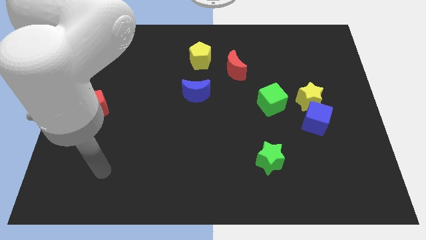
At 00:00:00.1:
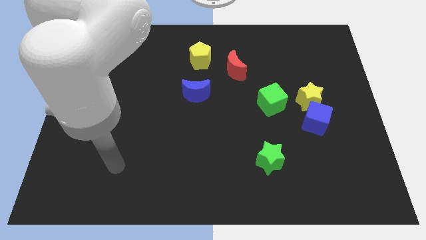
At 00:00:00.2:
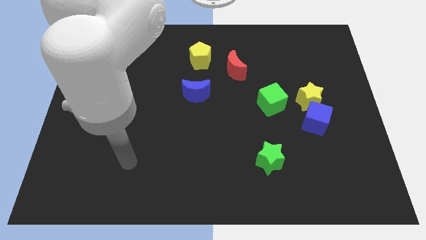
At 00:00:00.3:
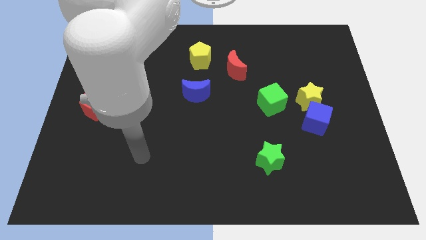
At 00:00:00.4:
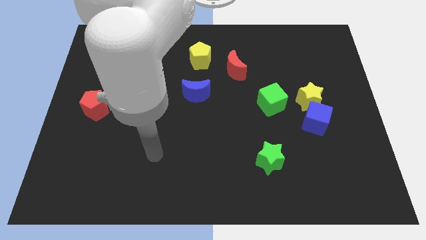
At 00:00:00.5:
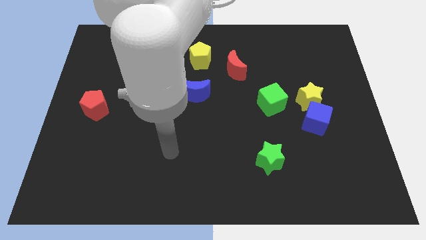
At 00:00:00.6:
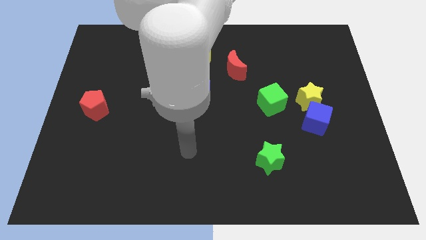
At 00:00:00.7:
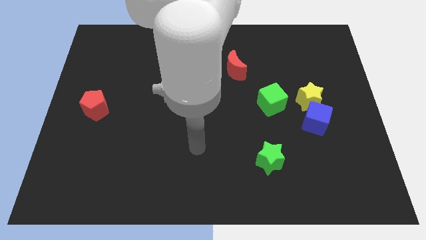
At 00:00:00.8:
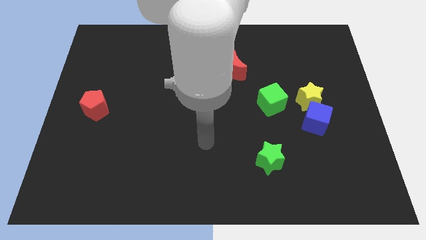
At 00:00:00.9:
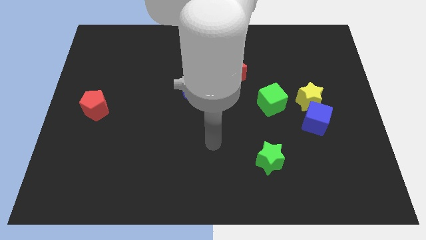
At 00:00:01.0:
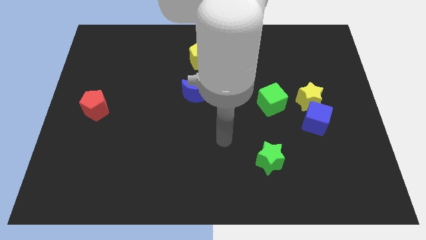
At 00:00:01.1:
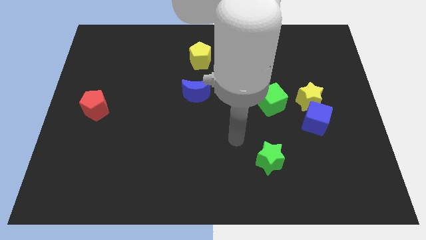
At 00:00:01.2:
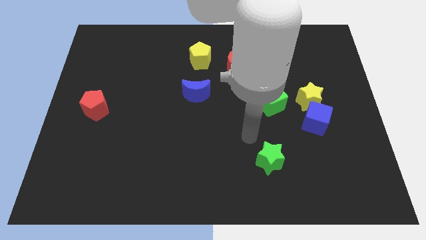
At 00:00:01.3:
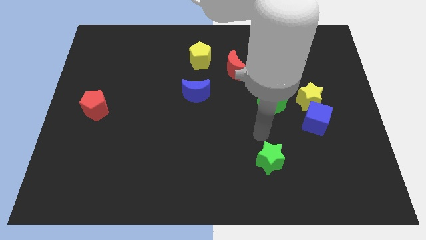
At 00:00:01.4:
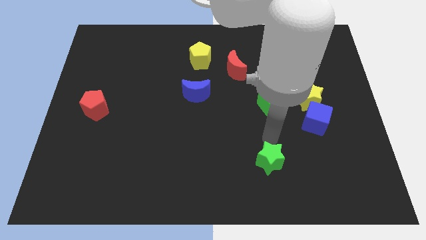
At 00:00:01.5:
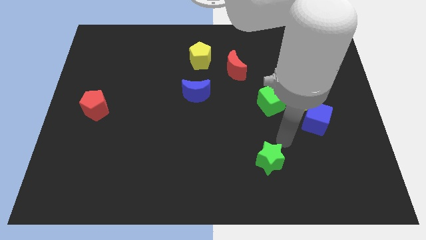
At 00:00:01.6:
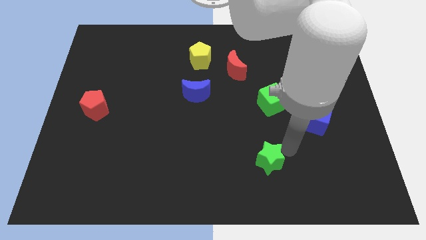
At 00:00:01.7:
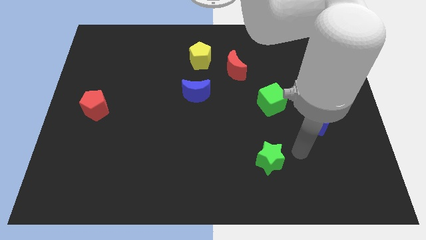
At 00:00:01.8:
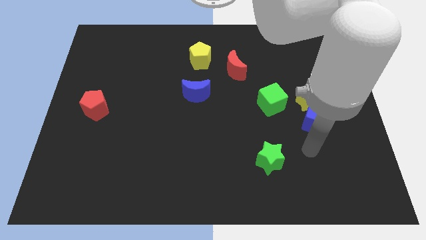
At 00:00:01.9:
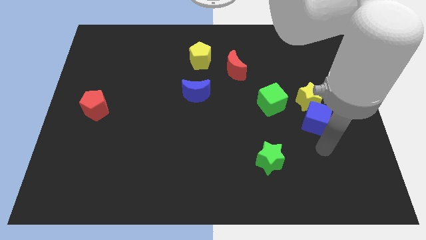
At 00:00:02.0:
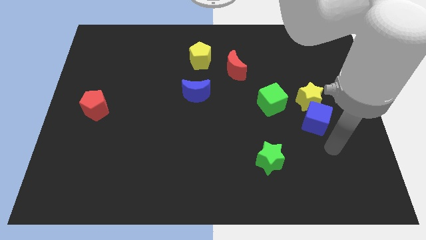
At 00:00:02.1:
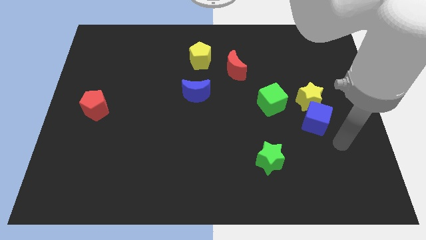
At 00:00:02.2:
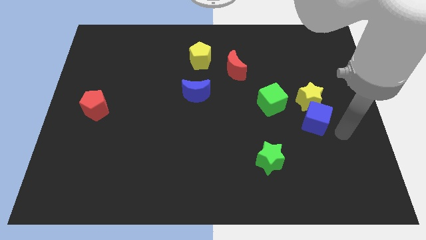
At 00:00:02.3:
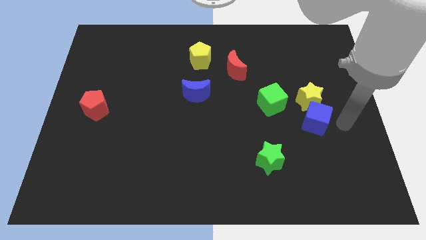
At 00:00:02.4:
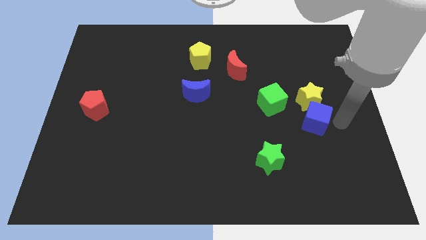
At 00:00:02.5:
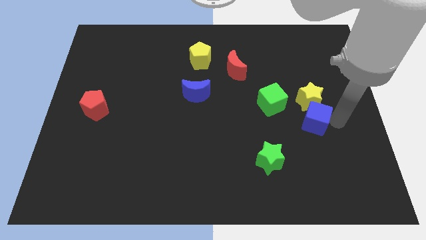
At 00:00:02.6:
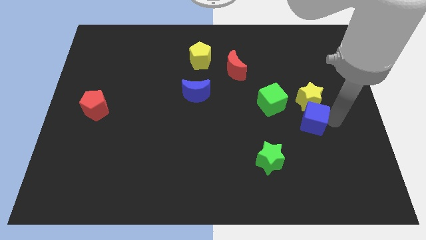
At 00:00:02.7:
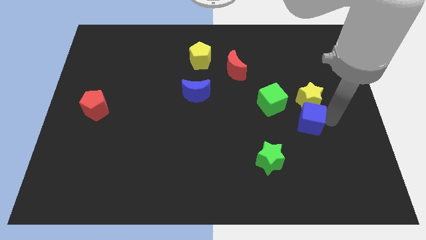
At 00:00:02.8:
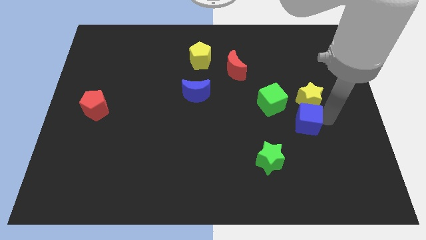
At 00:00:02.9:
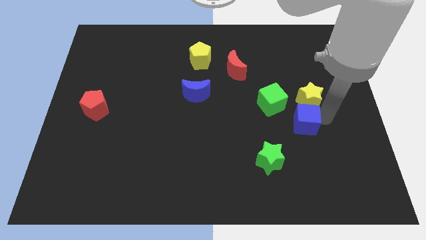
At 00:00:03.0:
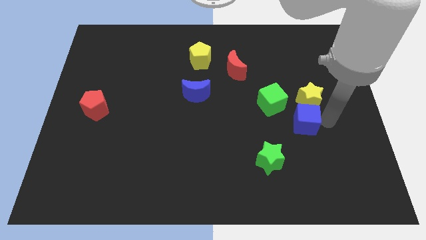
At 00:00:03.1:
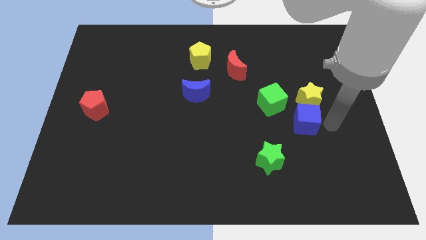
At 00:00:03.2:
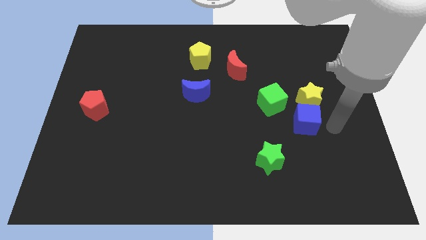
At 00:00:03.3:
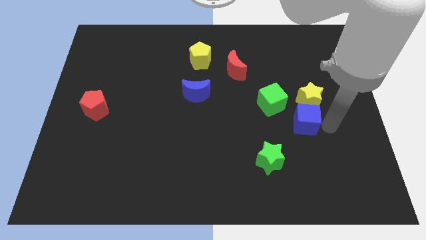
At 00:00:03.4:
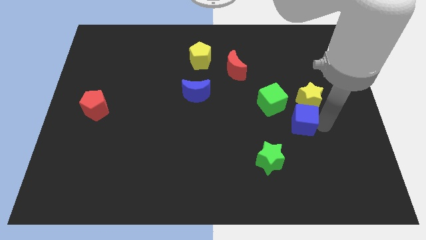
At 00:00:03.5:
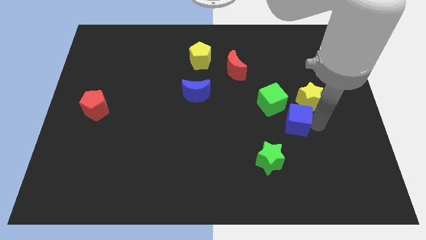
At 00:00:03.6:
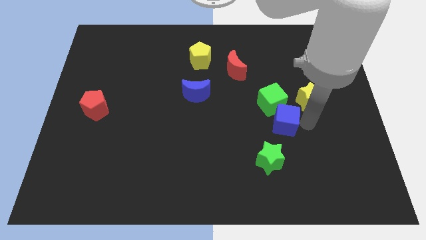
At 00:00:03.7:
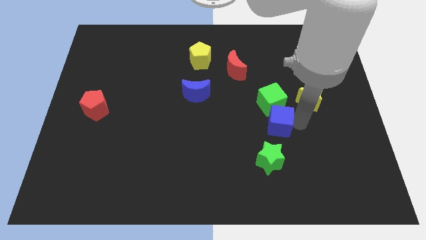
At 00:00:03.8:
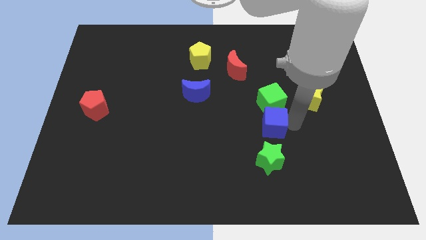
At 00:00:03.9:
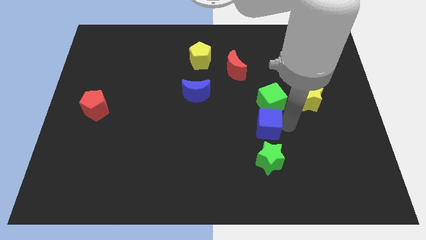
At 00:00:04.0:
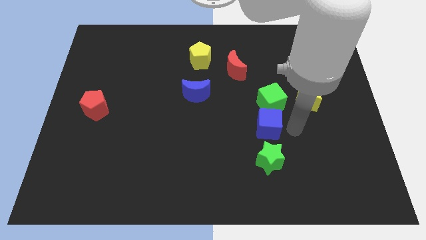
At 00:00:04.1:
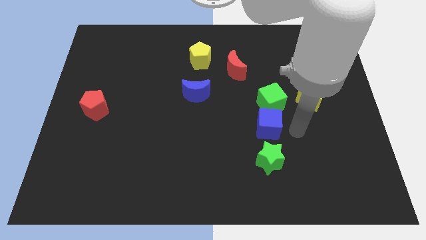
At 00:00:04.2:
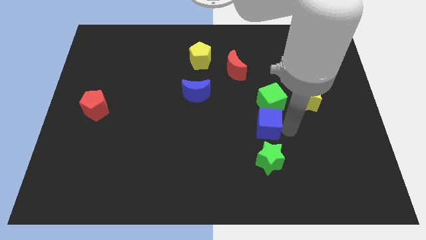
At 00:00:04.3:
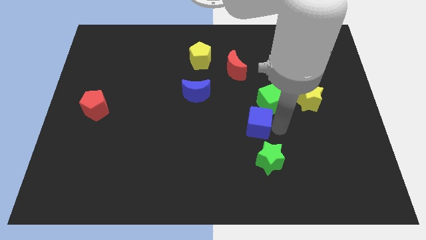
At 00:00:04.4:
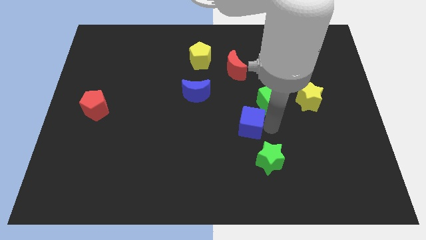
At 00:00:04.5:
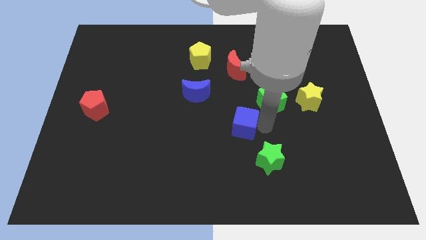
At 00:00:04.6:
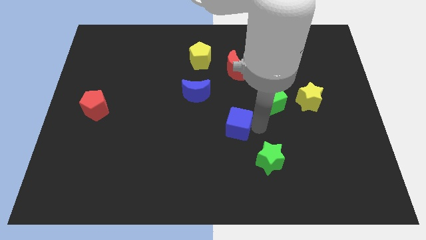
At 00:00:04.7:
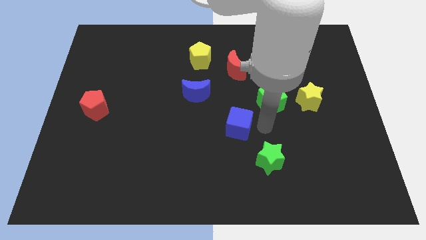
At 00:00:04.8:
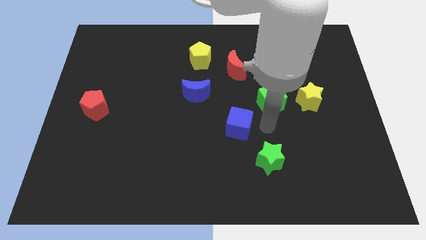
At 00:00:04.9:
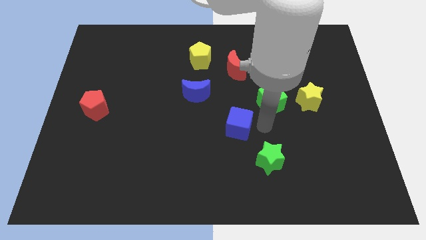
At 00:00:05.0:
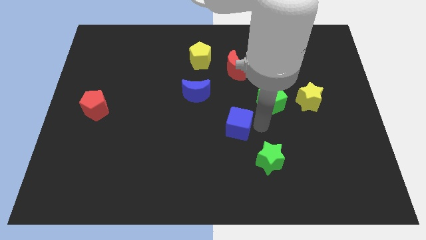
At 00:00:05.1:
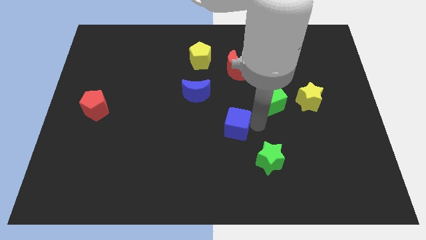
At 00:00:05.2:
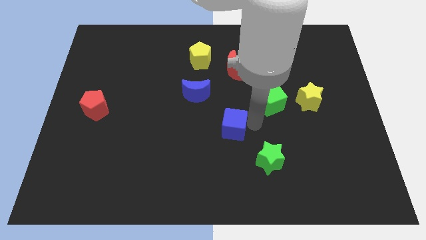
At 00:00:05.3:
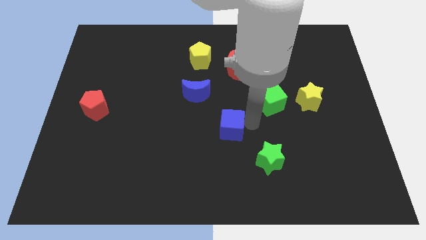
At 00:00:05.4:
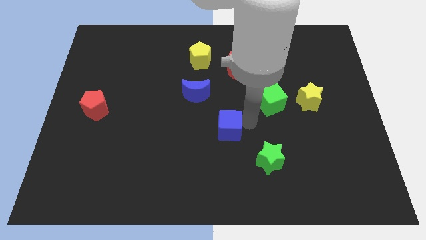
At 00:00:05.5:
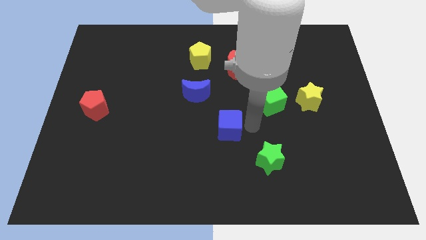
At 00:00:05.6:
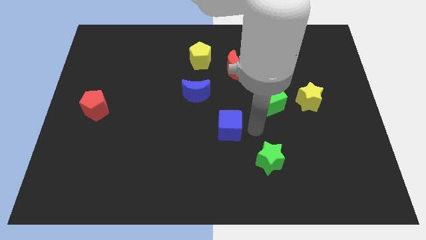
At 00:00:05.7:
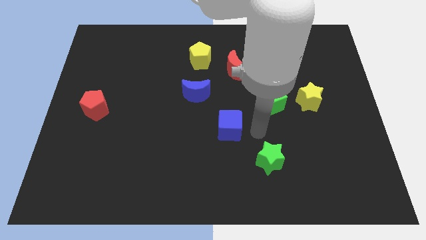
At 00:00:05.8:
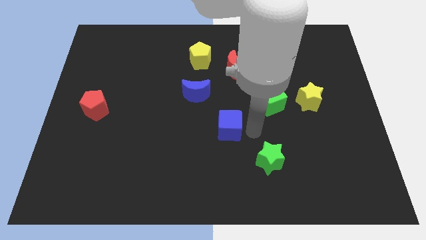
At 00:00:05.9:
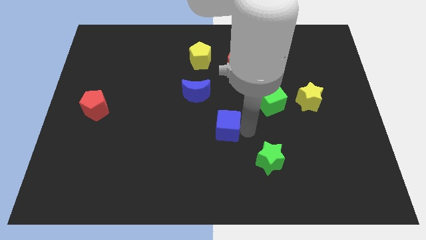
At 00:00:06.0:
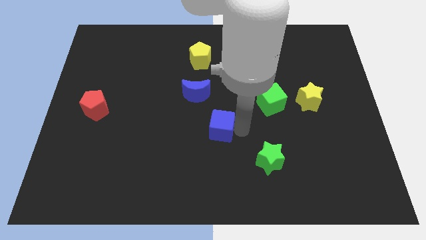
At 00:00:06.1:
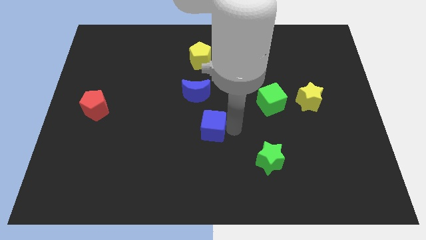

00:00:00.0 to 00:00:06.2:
put the blue cube below the blue moon
